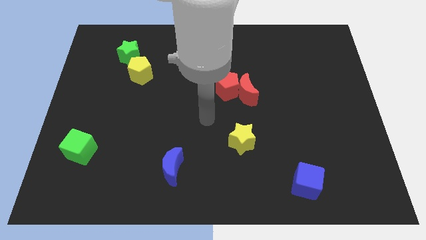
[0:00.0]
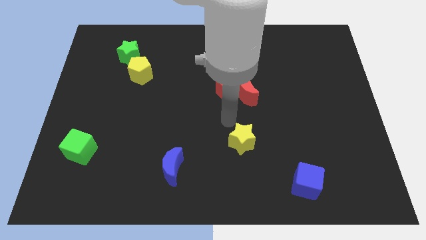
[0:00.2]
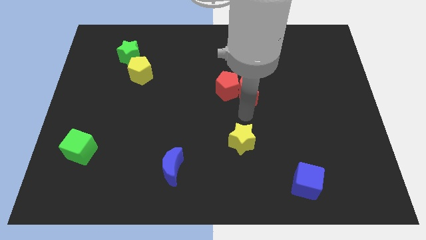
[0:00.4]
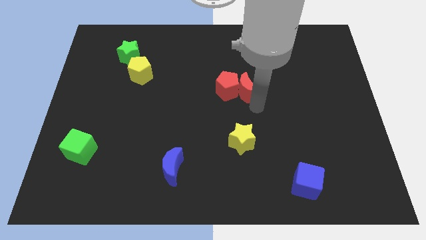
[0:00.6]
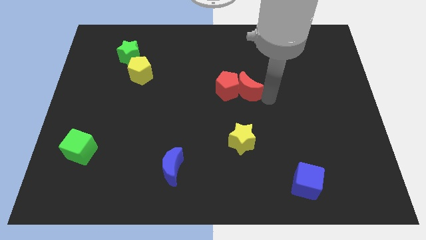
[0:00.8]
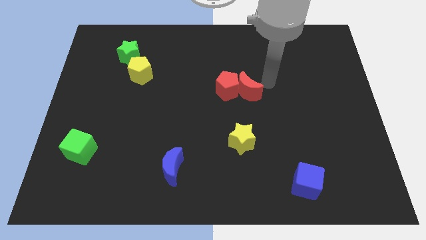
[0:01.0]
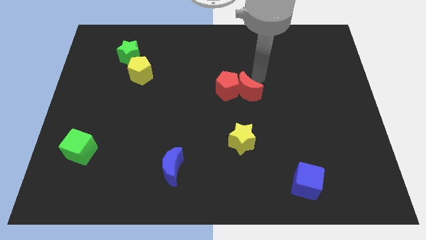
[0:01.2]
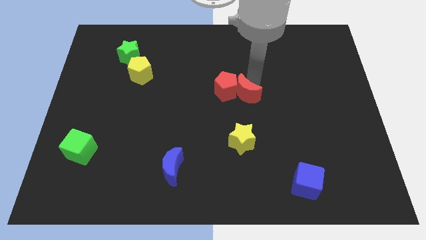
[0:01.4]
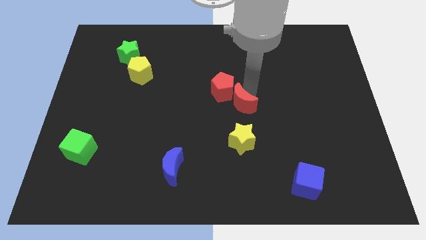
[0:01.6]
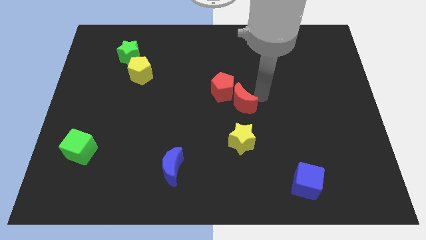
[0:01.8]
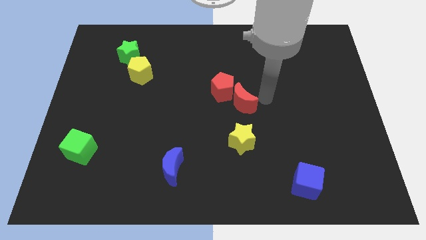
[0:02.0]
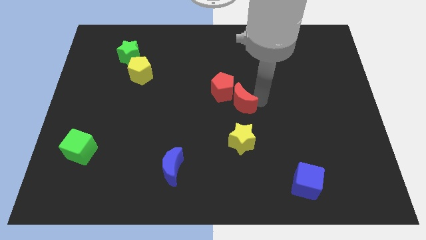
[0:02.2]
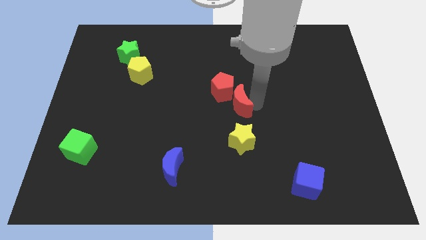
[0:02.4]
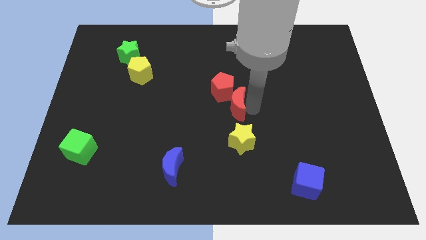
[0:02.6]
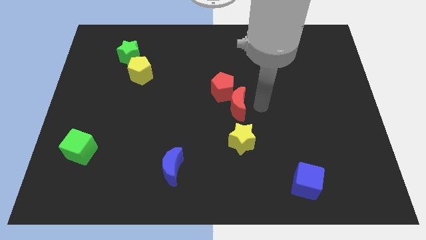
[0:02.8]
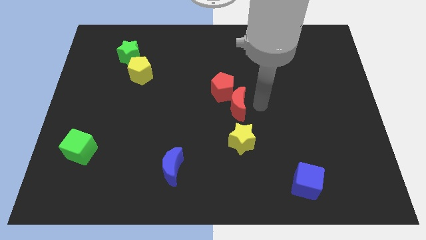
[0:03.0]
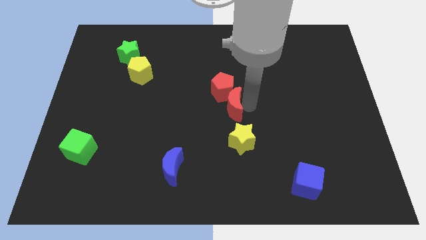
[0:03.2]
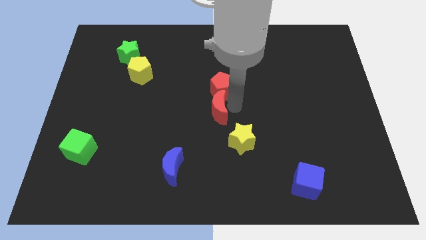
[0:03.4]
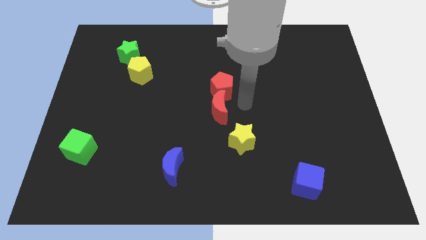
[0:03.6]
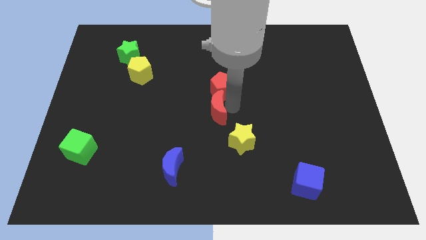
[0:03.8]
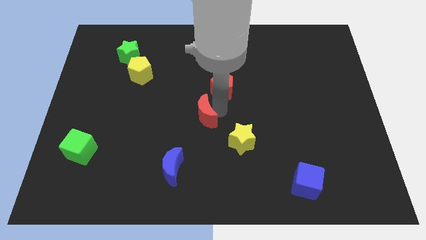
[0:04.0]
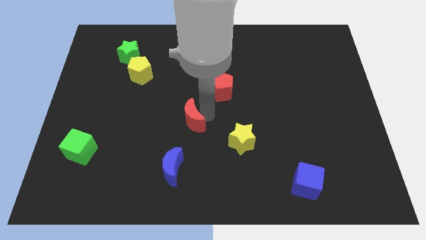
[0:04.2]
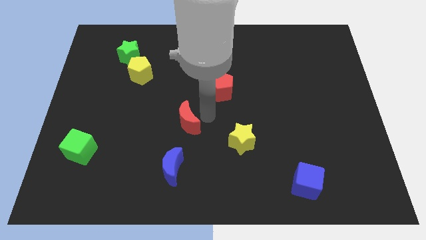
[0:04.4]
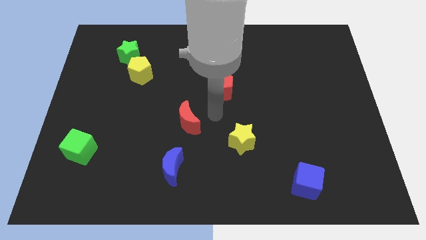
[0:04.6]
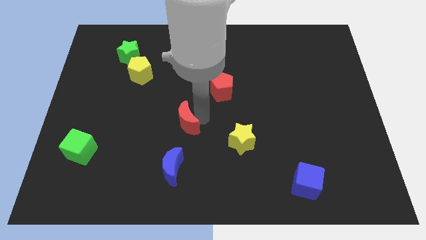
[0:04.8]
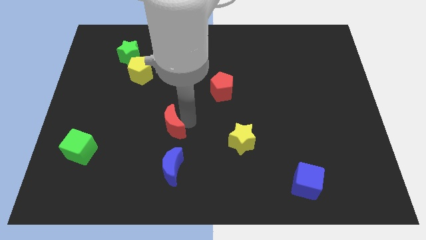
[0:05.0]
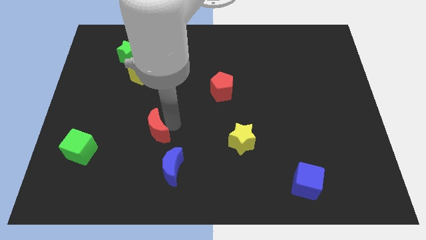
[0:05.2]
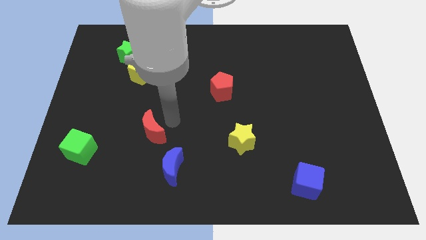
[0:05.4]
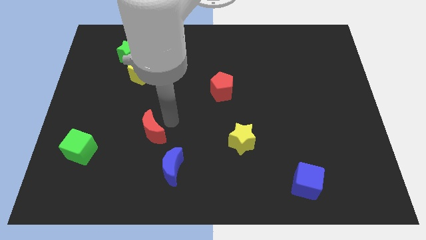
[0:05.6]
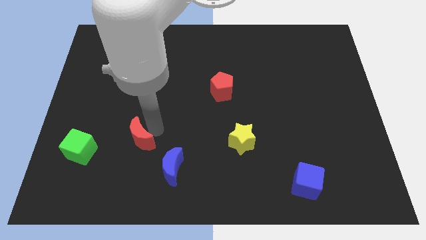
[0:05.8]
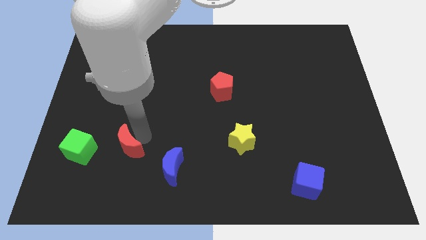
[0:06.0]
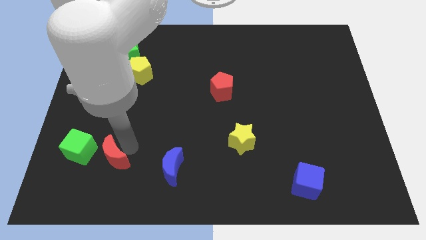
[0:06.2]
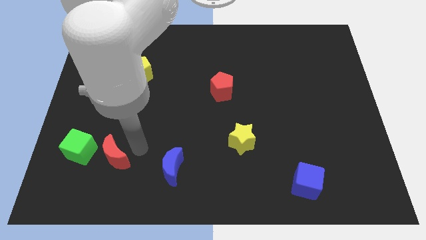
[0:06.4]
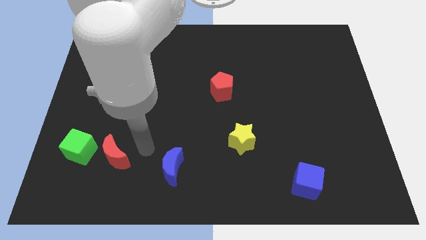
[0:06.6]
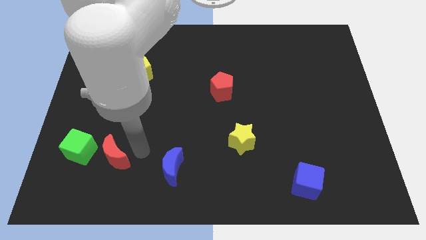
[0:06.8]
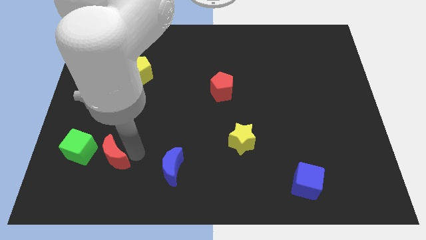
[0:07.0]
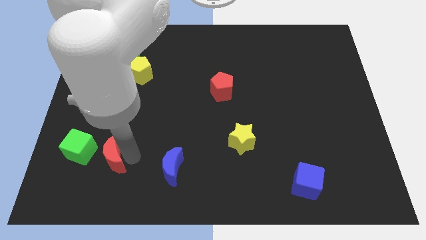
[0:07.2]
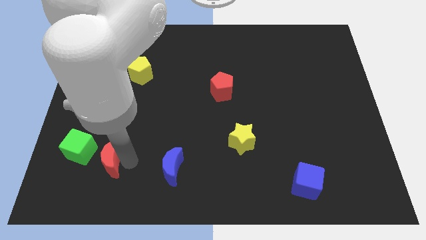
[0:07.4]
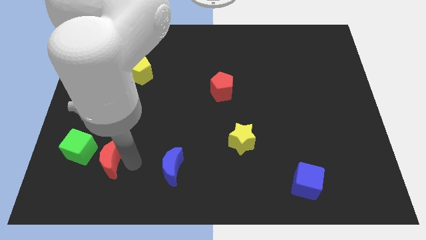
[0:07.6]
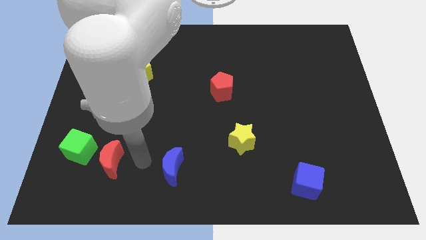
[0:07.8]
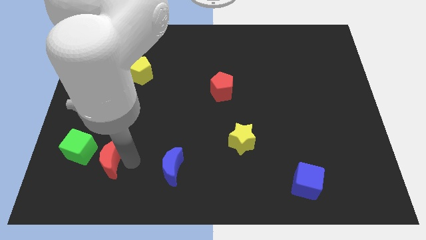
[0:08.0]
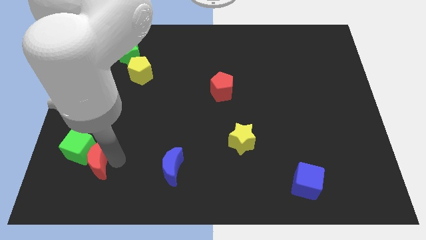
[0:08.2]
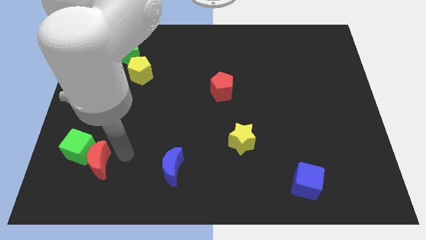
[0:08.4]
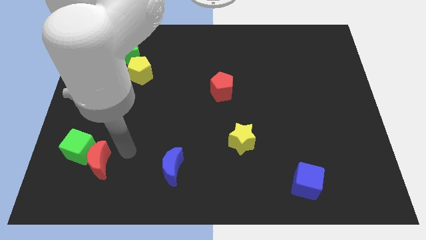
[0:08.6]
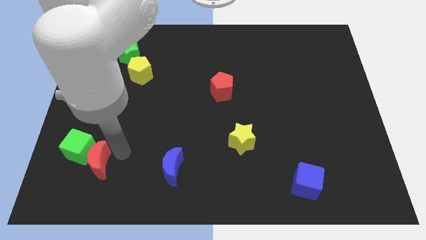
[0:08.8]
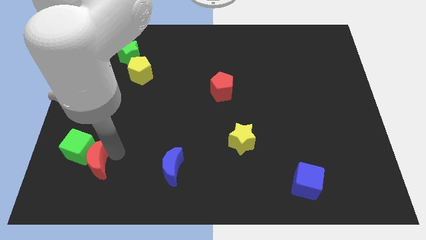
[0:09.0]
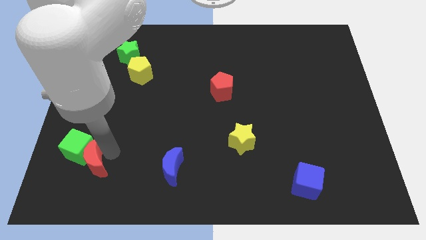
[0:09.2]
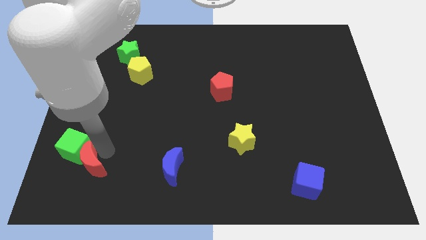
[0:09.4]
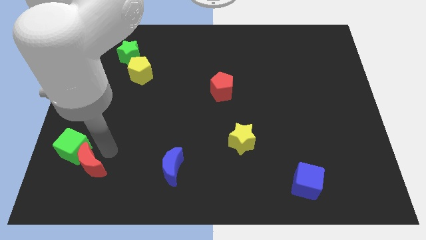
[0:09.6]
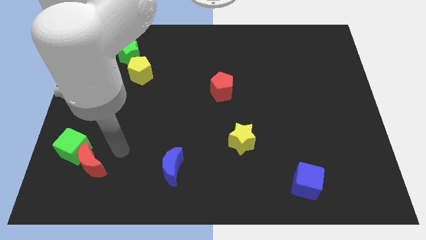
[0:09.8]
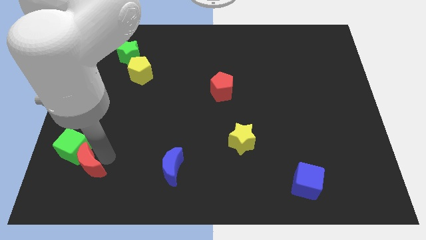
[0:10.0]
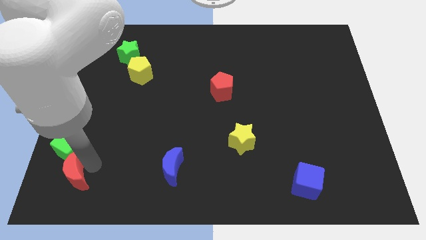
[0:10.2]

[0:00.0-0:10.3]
slide the red moon to the bottom left

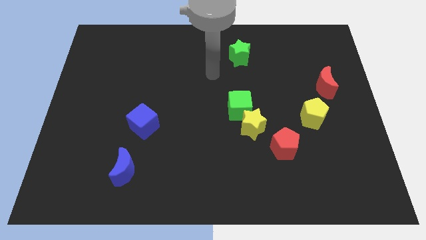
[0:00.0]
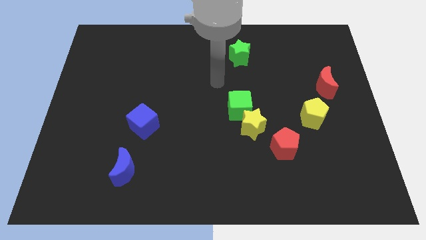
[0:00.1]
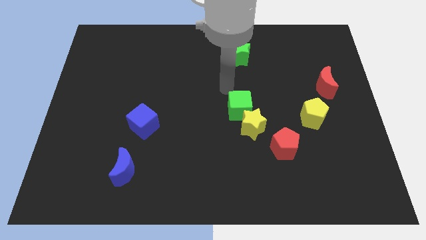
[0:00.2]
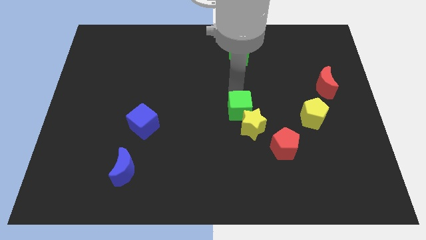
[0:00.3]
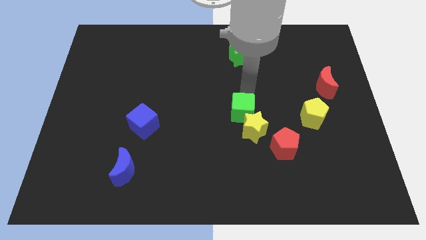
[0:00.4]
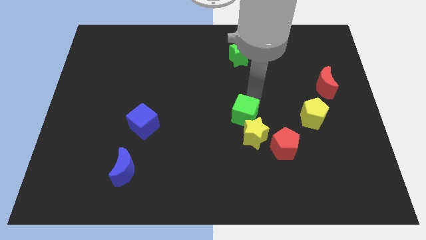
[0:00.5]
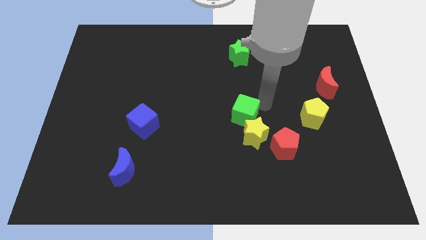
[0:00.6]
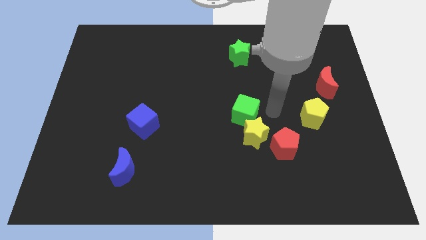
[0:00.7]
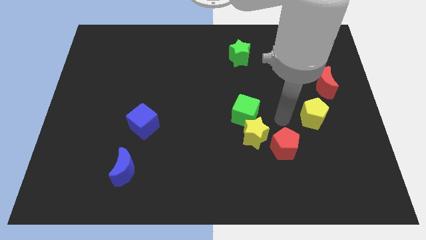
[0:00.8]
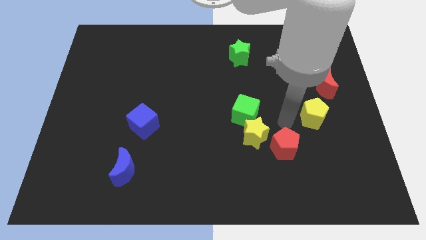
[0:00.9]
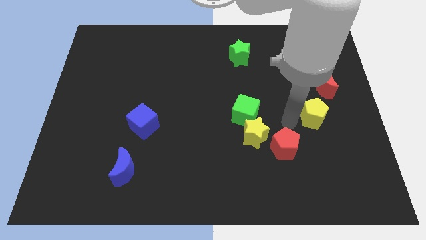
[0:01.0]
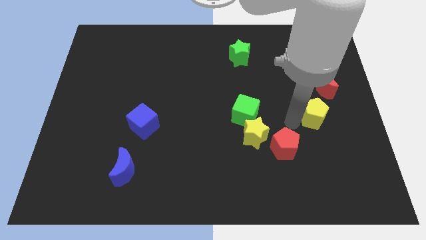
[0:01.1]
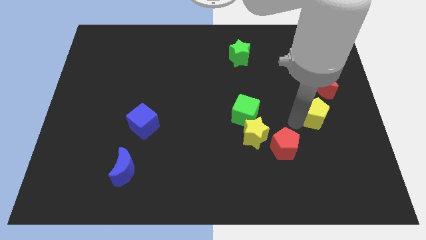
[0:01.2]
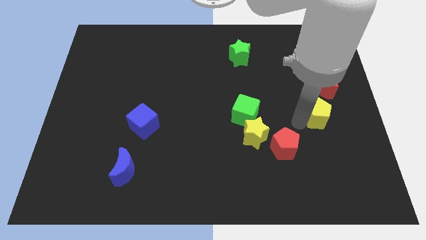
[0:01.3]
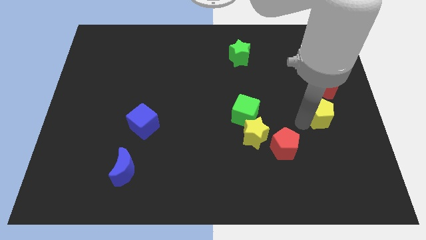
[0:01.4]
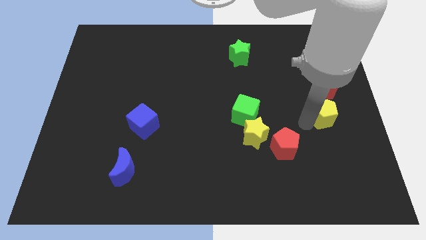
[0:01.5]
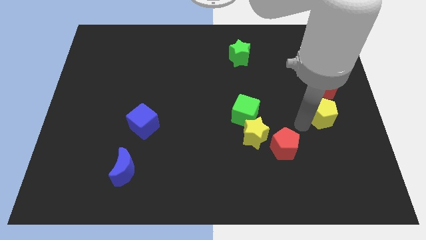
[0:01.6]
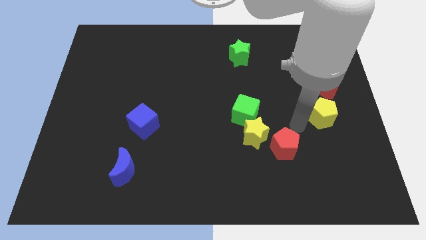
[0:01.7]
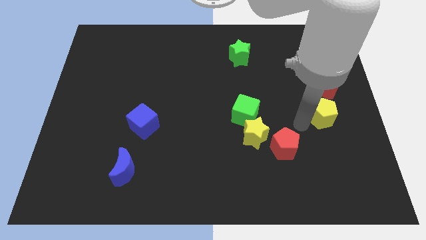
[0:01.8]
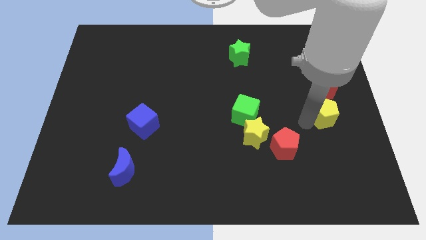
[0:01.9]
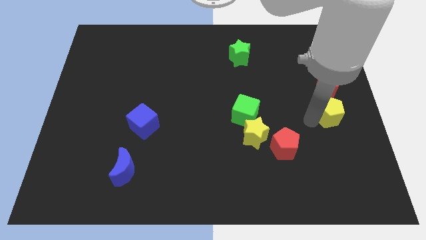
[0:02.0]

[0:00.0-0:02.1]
put the yellow pentagon to the right side of the board

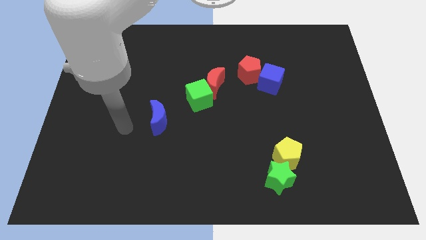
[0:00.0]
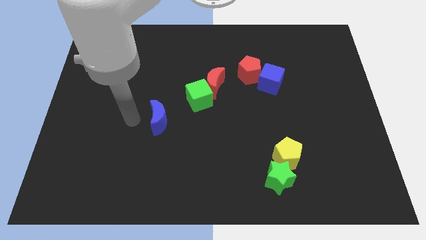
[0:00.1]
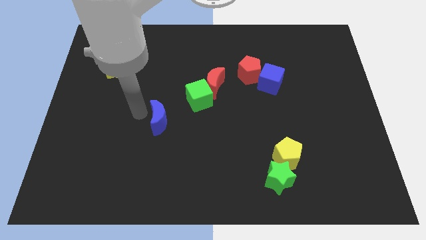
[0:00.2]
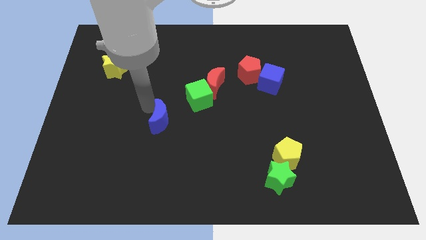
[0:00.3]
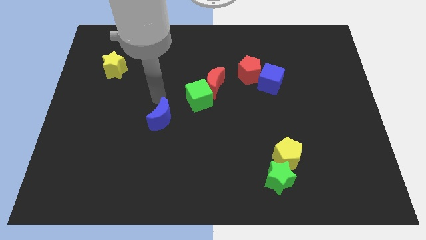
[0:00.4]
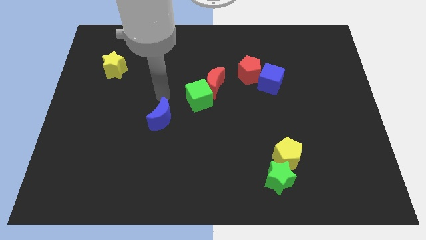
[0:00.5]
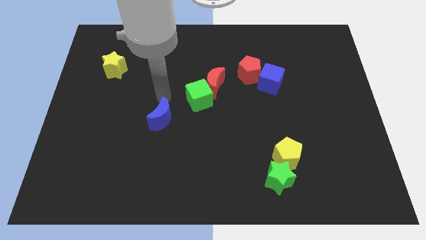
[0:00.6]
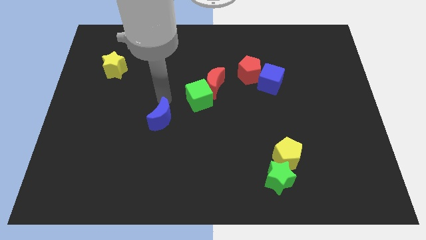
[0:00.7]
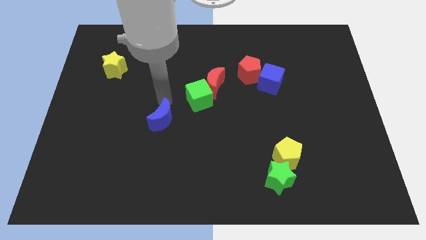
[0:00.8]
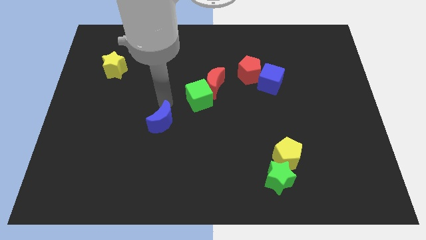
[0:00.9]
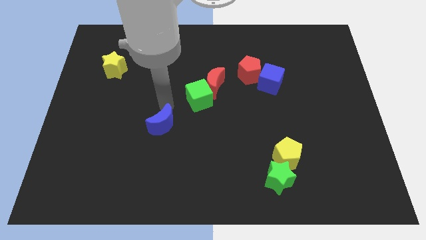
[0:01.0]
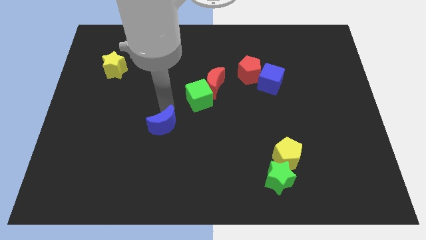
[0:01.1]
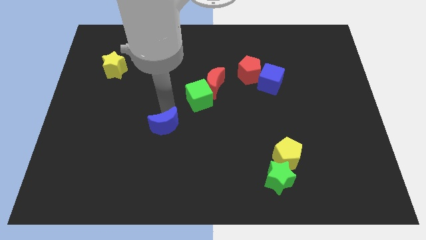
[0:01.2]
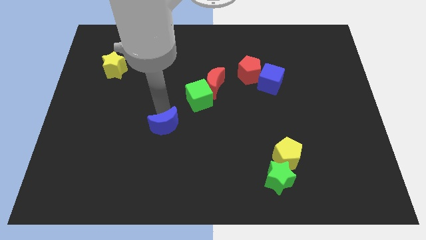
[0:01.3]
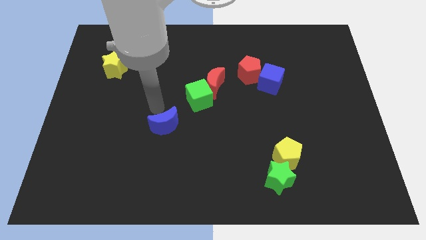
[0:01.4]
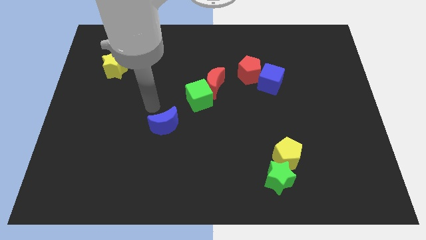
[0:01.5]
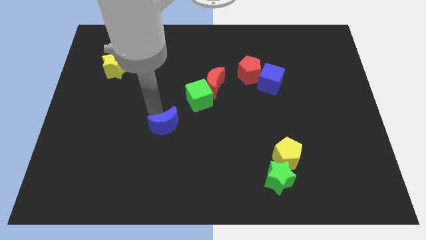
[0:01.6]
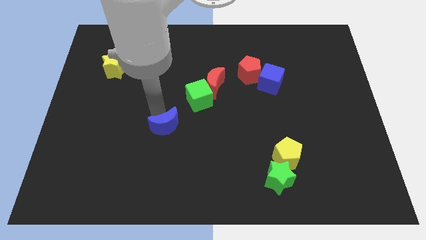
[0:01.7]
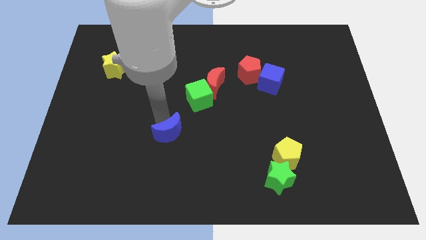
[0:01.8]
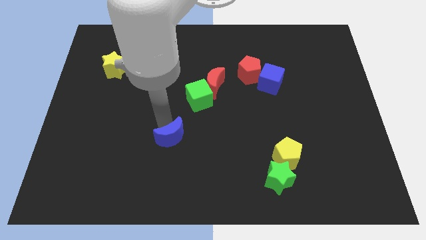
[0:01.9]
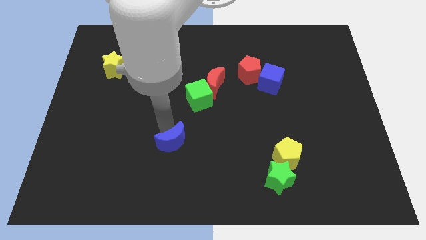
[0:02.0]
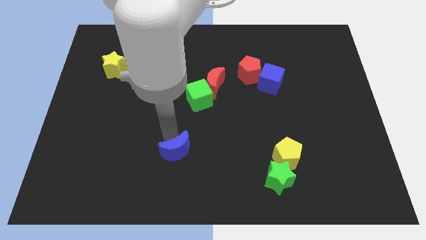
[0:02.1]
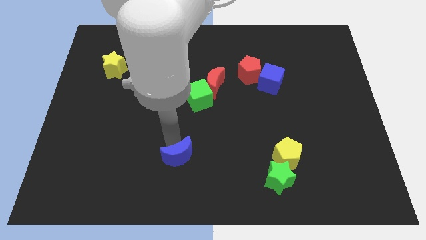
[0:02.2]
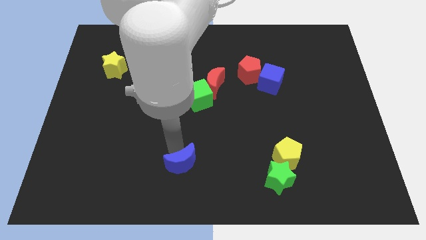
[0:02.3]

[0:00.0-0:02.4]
slide the blue moon to the bottom
